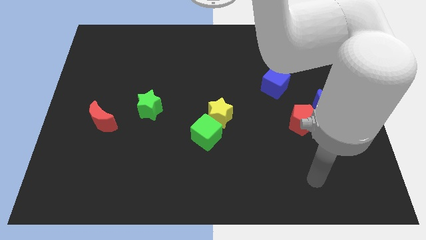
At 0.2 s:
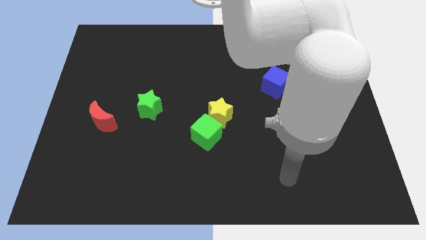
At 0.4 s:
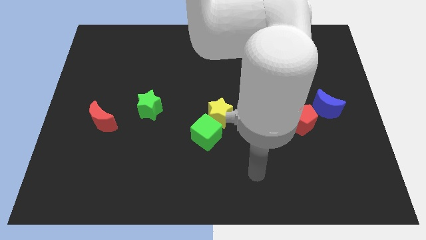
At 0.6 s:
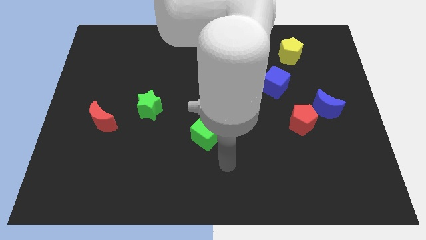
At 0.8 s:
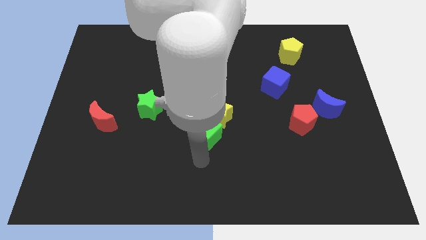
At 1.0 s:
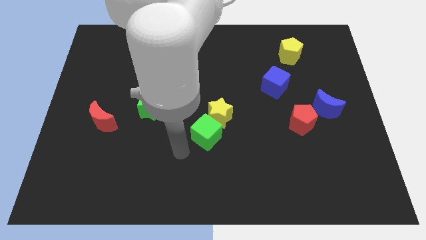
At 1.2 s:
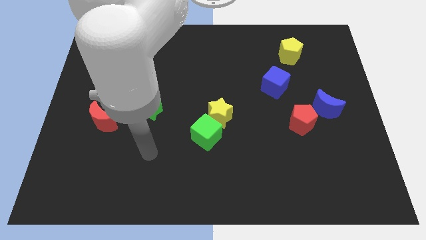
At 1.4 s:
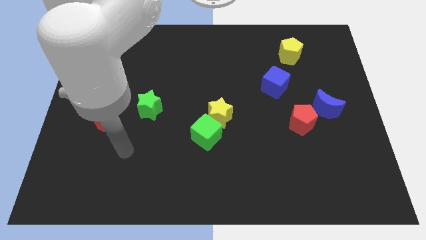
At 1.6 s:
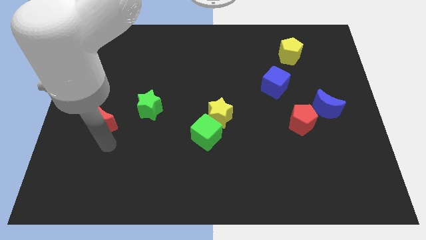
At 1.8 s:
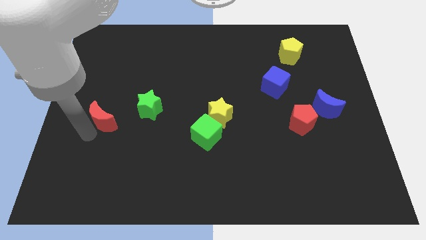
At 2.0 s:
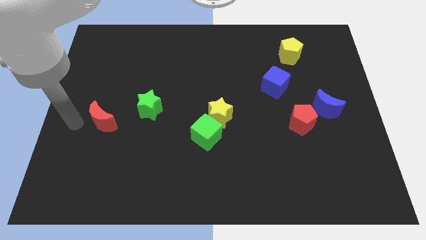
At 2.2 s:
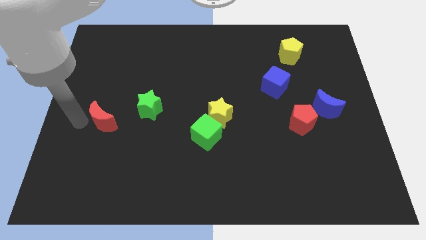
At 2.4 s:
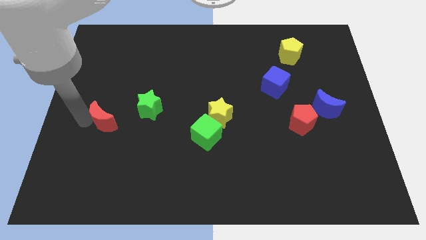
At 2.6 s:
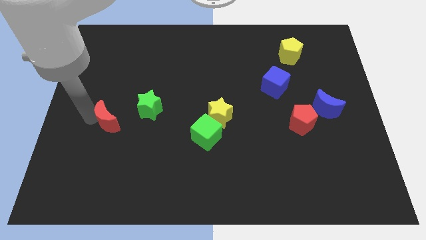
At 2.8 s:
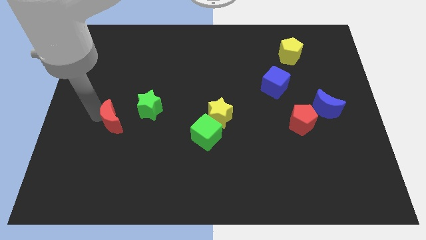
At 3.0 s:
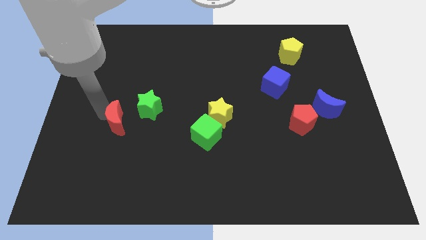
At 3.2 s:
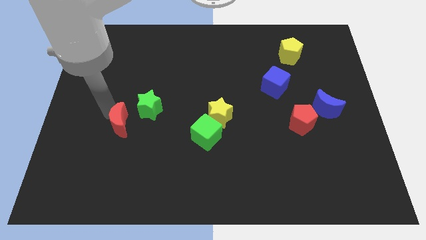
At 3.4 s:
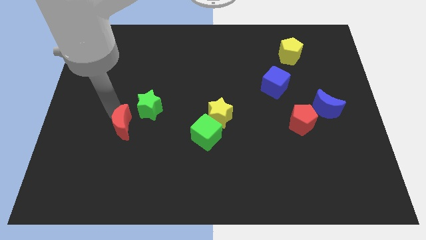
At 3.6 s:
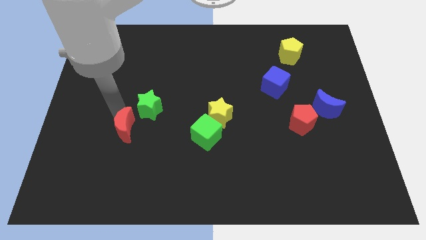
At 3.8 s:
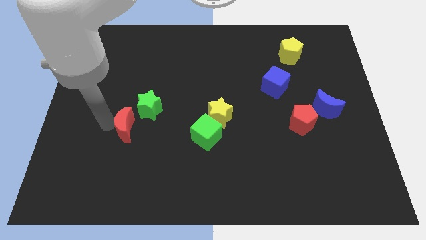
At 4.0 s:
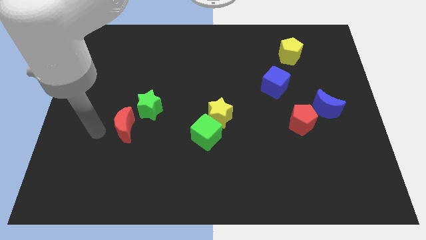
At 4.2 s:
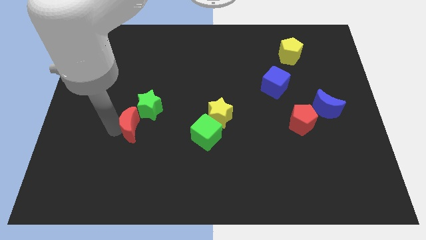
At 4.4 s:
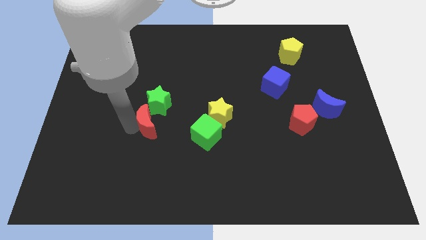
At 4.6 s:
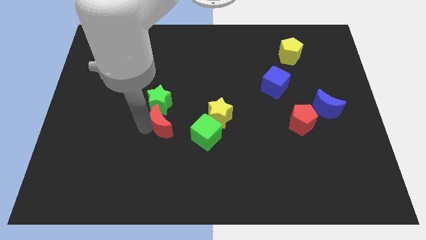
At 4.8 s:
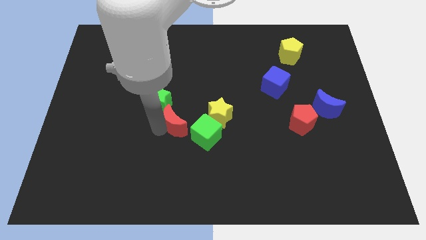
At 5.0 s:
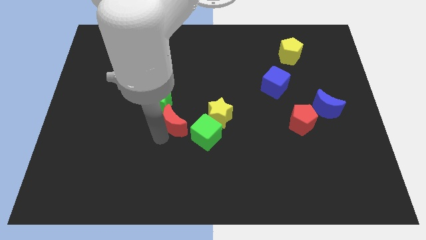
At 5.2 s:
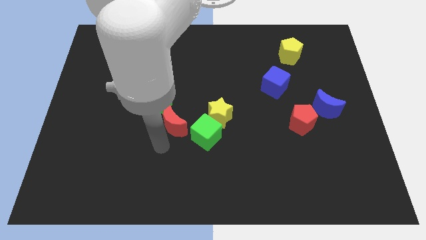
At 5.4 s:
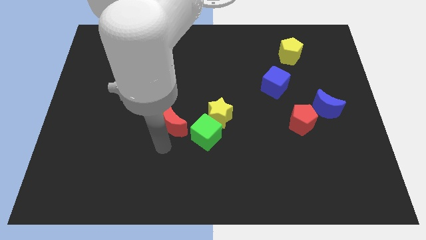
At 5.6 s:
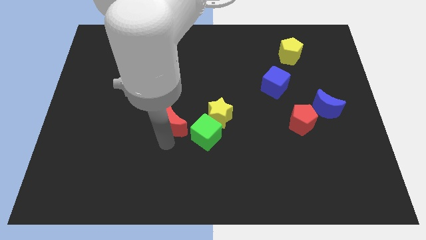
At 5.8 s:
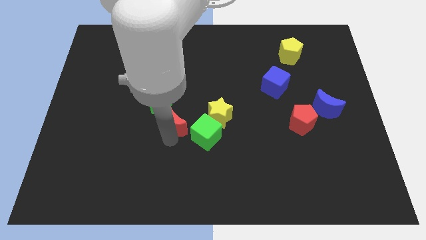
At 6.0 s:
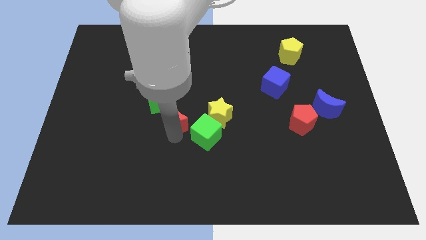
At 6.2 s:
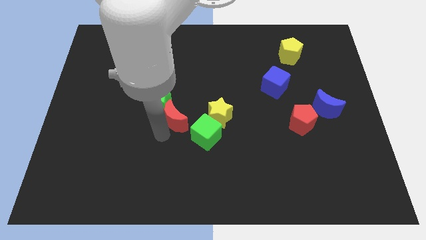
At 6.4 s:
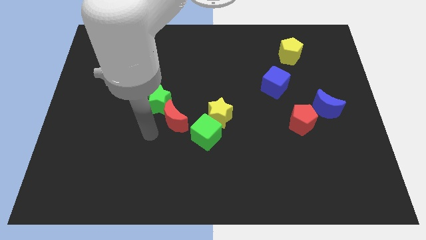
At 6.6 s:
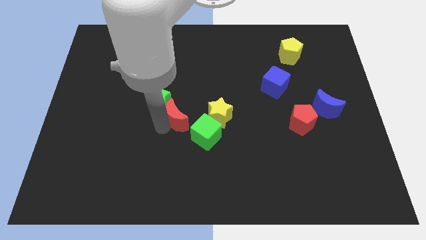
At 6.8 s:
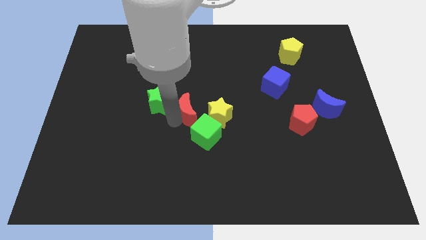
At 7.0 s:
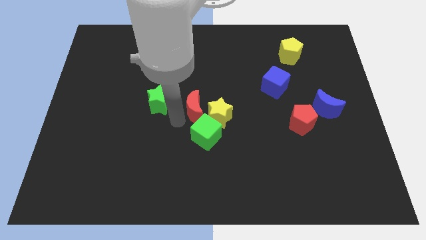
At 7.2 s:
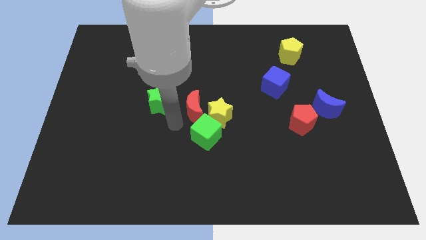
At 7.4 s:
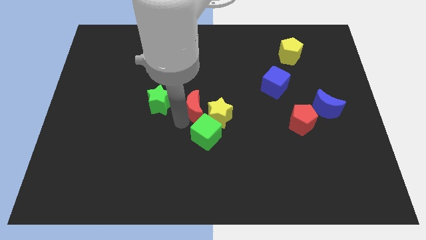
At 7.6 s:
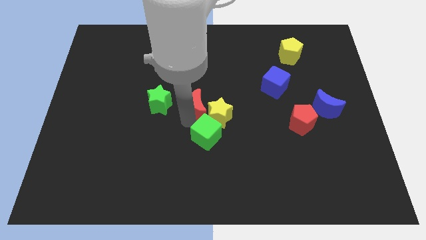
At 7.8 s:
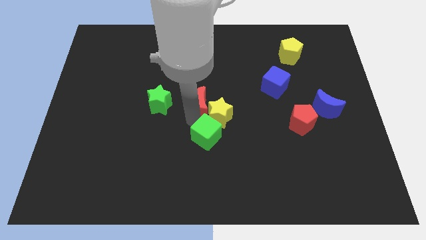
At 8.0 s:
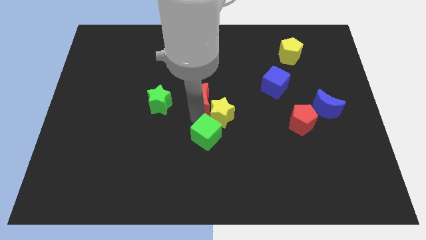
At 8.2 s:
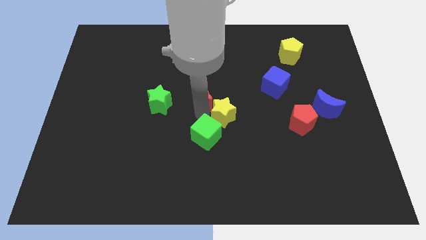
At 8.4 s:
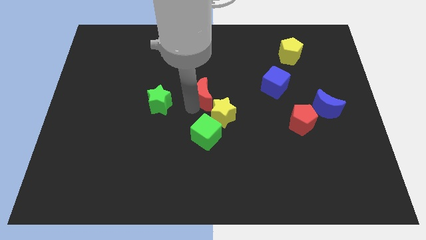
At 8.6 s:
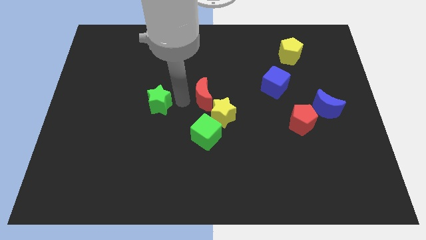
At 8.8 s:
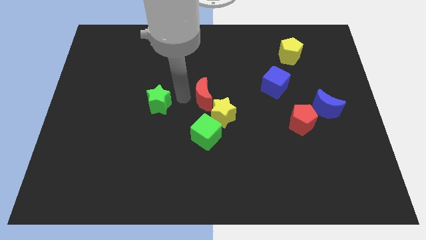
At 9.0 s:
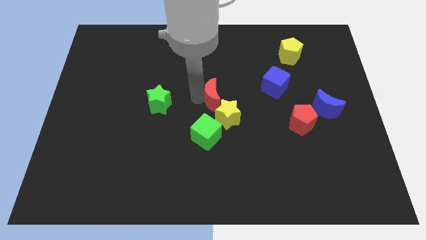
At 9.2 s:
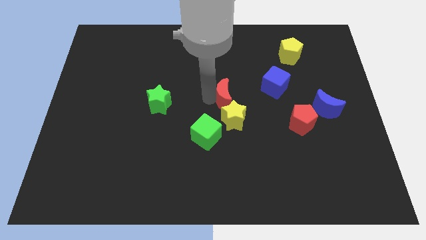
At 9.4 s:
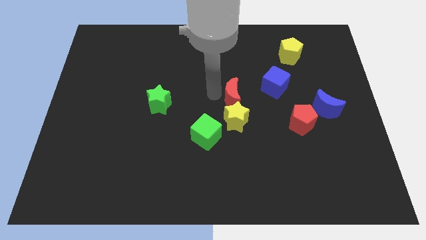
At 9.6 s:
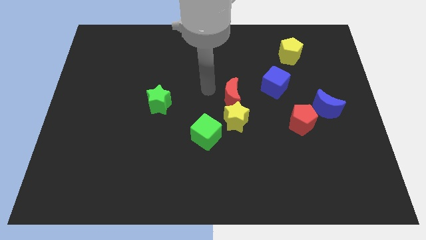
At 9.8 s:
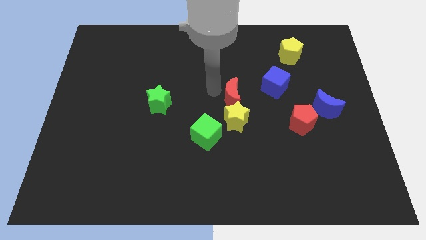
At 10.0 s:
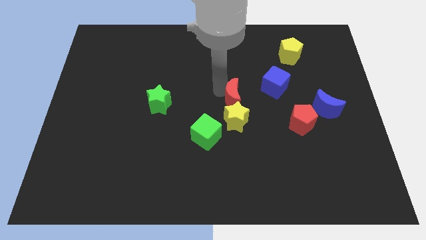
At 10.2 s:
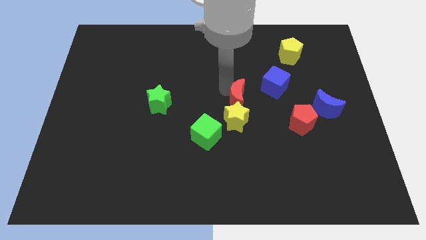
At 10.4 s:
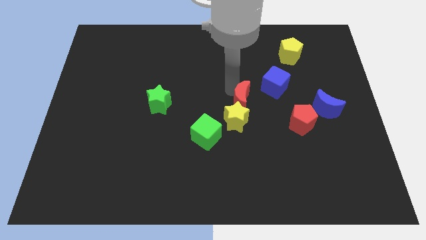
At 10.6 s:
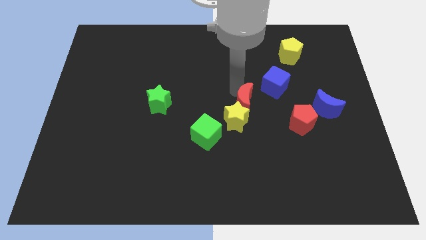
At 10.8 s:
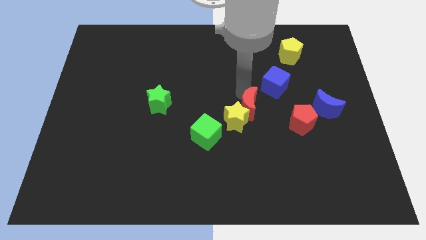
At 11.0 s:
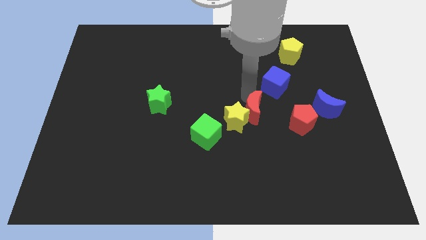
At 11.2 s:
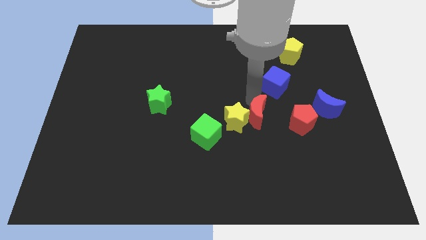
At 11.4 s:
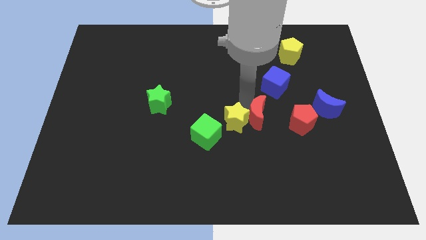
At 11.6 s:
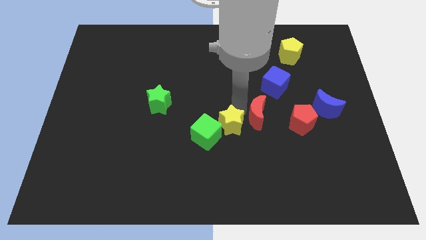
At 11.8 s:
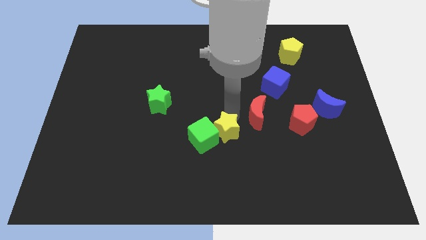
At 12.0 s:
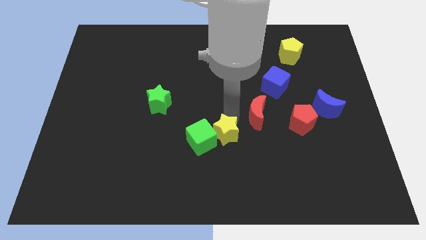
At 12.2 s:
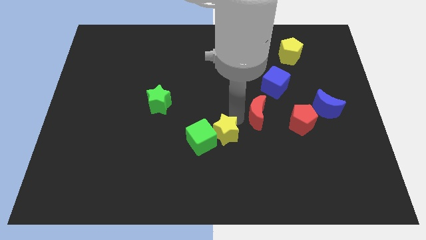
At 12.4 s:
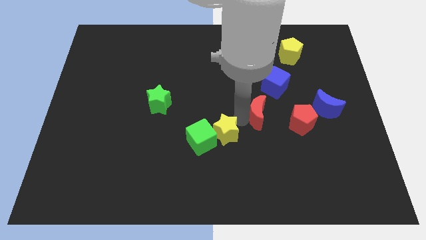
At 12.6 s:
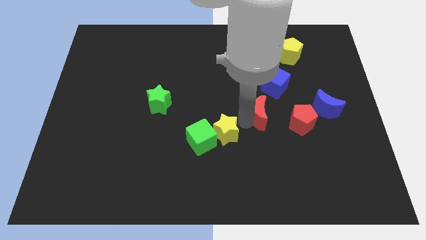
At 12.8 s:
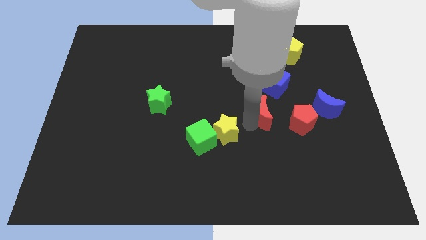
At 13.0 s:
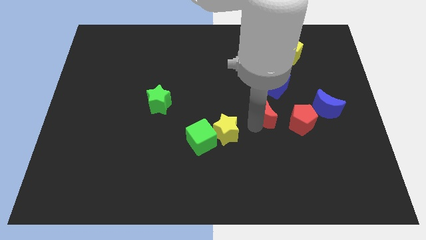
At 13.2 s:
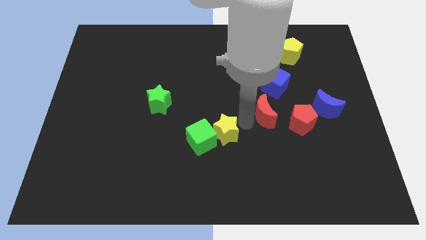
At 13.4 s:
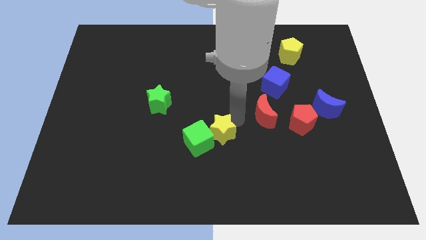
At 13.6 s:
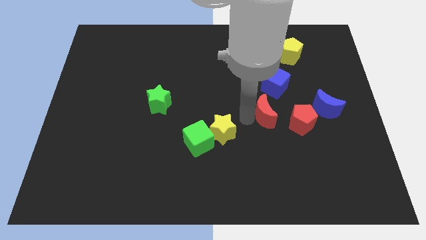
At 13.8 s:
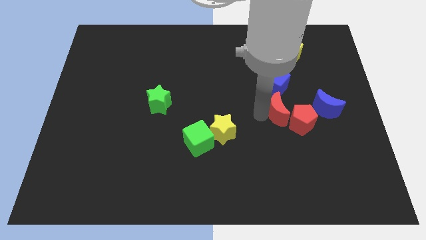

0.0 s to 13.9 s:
push the red moon towards the red pentagon
